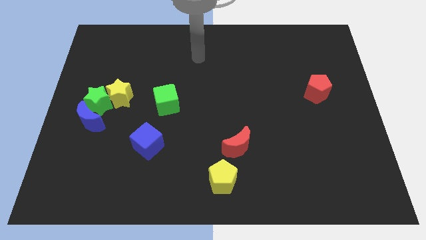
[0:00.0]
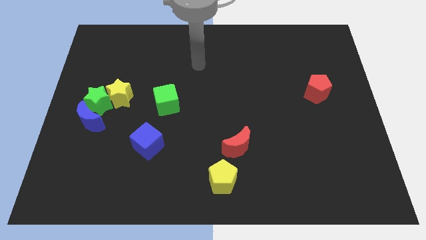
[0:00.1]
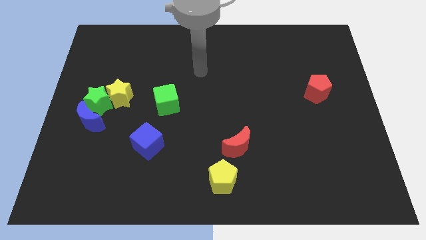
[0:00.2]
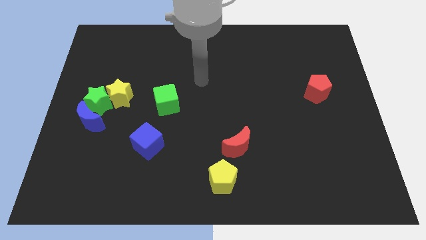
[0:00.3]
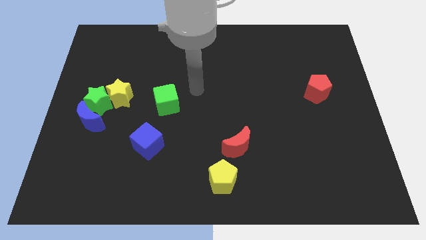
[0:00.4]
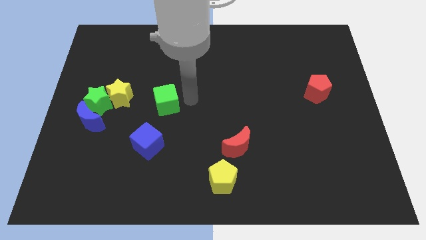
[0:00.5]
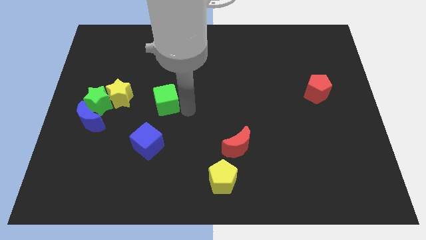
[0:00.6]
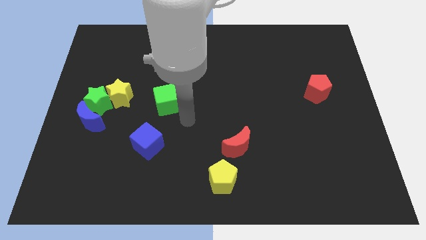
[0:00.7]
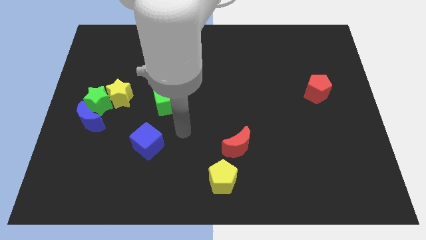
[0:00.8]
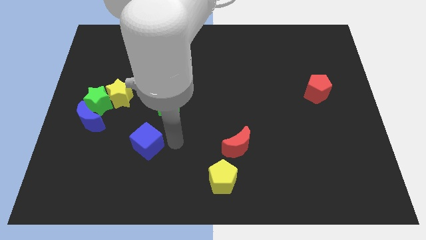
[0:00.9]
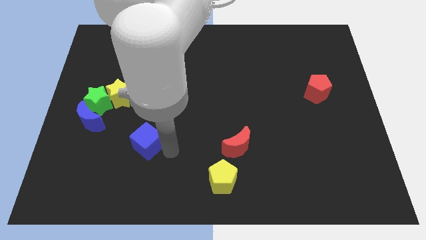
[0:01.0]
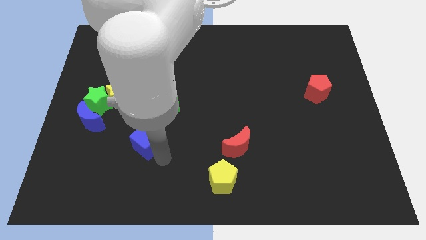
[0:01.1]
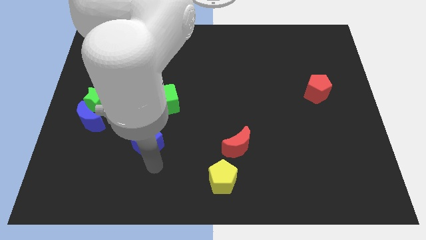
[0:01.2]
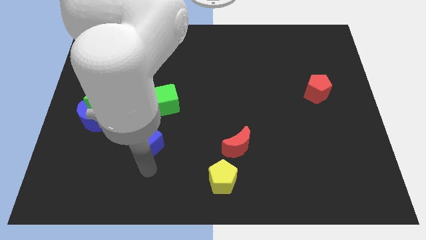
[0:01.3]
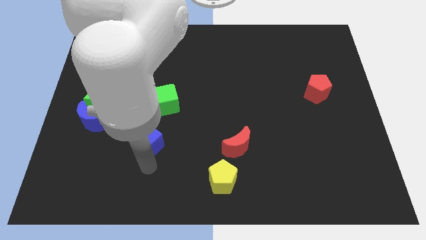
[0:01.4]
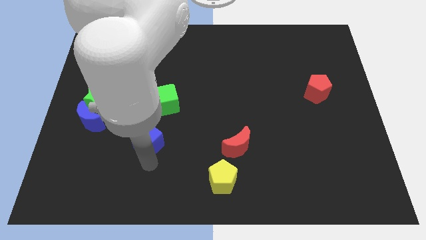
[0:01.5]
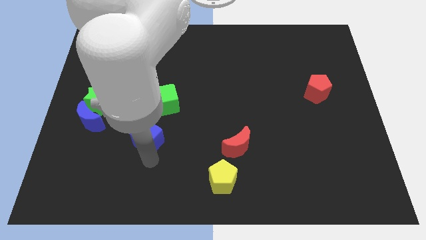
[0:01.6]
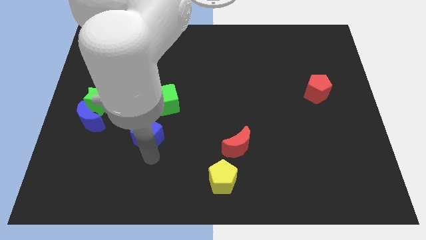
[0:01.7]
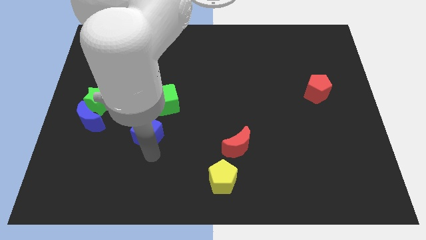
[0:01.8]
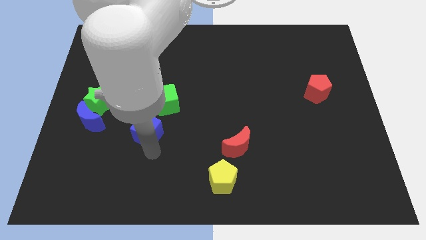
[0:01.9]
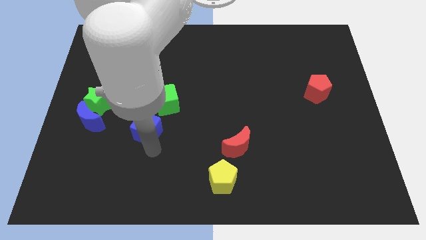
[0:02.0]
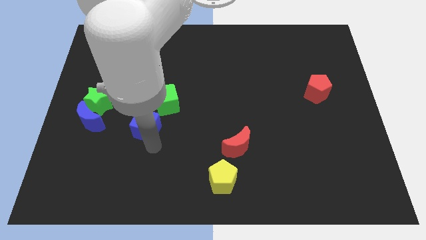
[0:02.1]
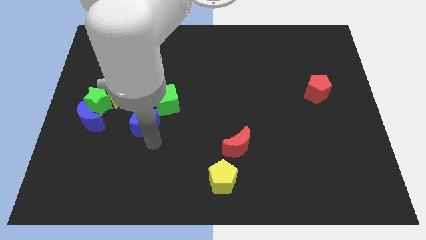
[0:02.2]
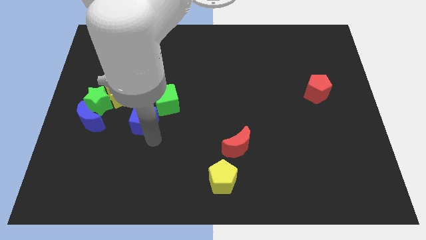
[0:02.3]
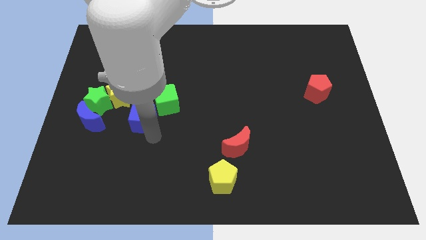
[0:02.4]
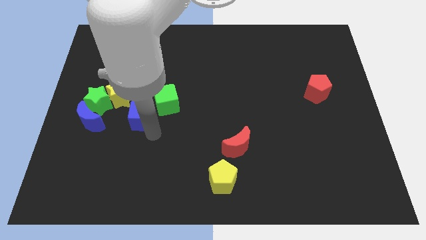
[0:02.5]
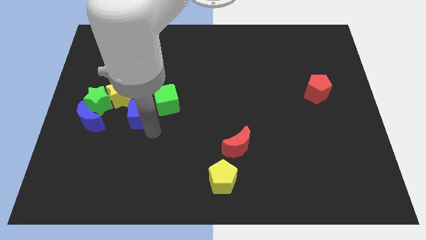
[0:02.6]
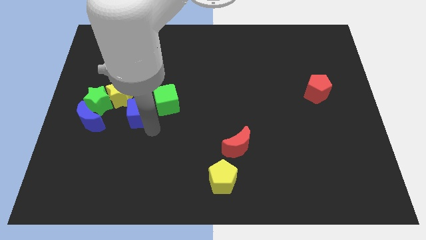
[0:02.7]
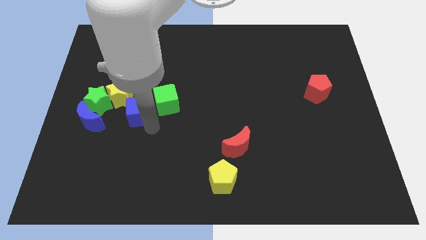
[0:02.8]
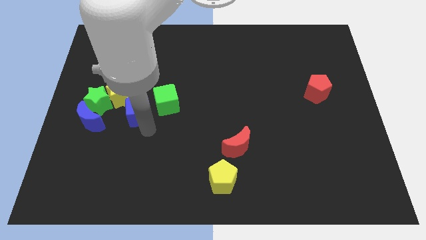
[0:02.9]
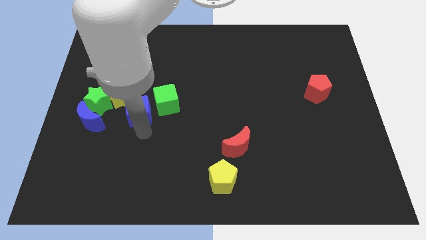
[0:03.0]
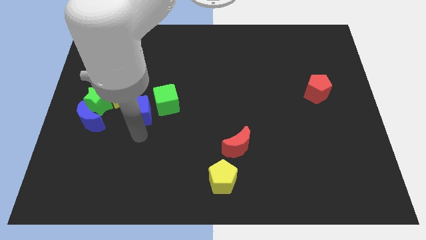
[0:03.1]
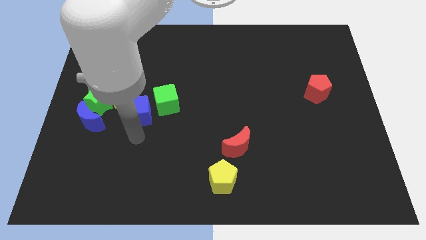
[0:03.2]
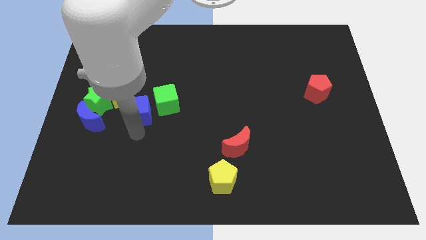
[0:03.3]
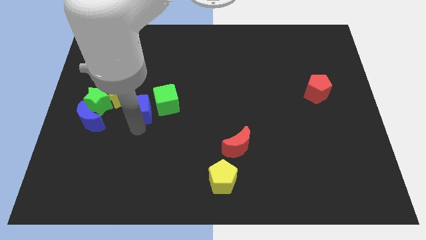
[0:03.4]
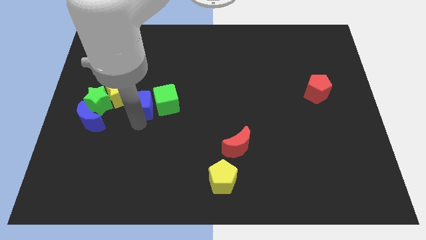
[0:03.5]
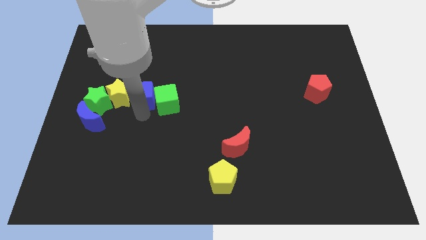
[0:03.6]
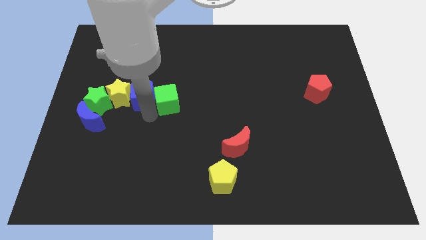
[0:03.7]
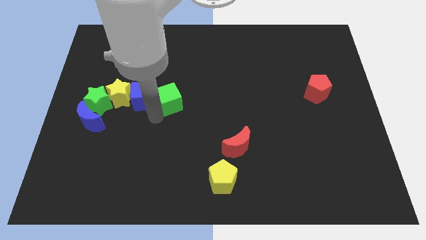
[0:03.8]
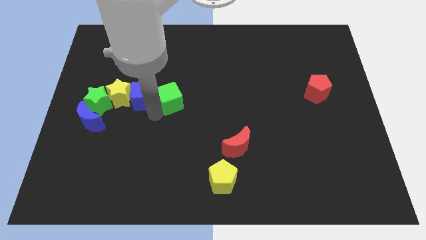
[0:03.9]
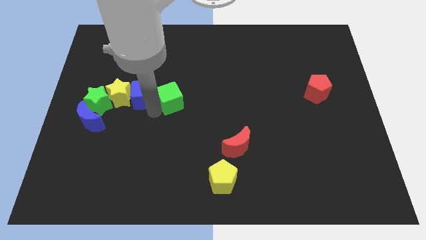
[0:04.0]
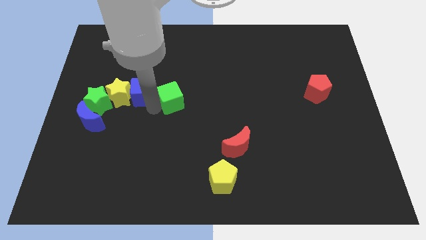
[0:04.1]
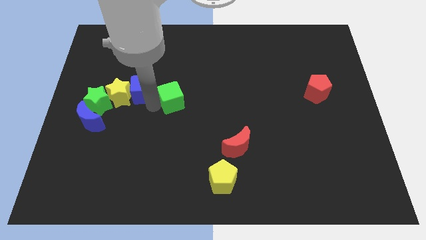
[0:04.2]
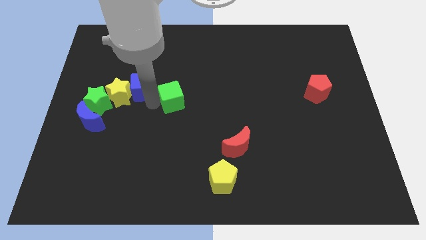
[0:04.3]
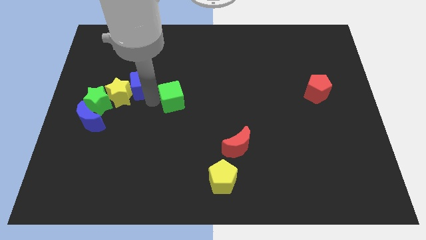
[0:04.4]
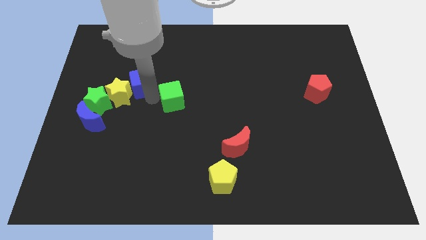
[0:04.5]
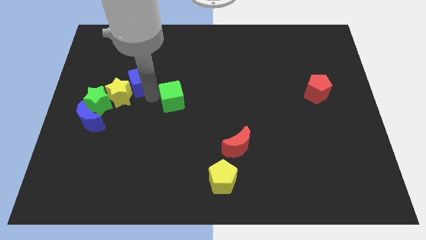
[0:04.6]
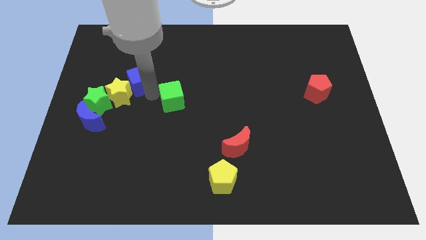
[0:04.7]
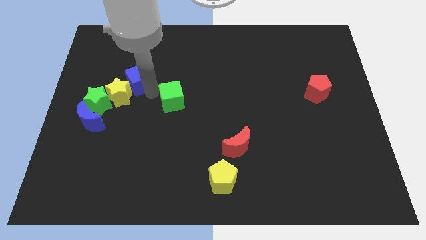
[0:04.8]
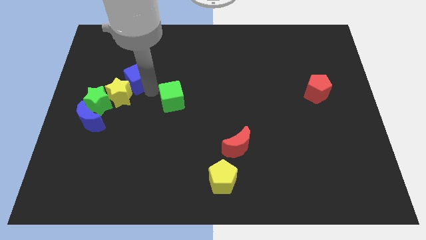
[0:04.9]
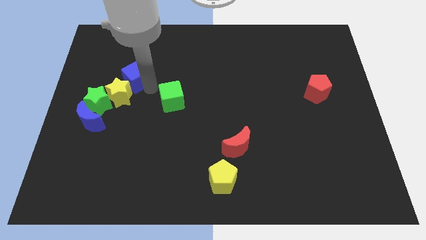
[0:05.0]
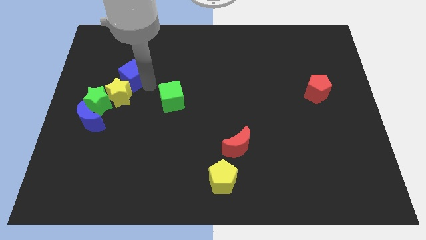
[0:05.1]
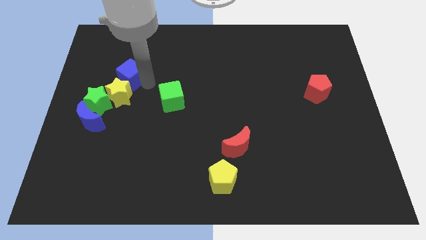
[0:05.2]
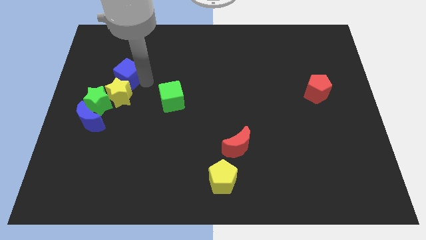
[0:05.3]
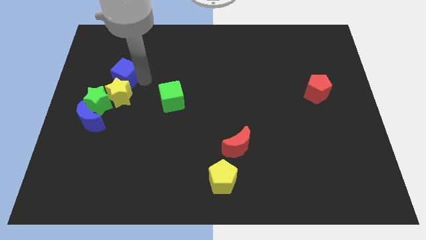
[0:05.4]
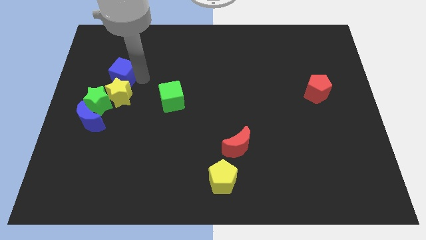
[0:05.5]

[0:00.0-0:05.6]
put the blue cube to the top of the green star
